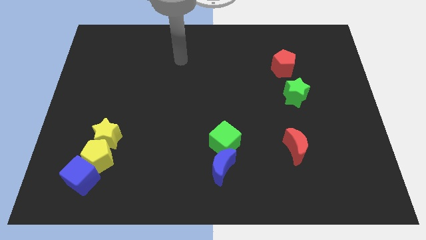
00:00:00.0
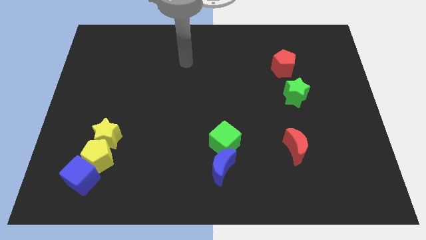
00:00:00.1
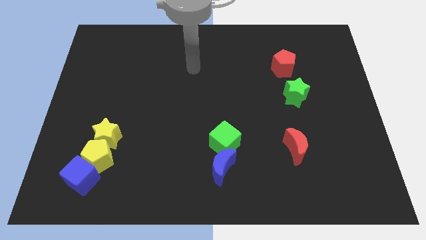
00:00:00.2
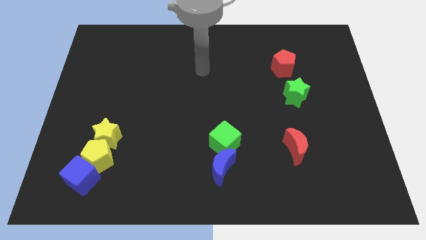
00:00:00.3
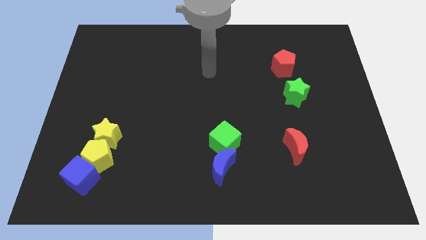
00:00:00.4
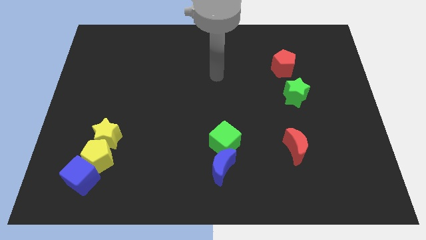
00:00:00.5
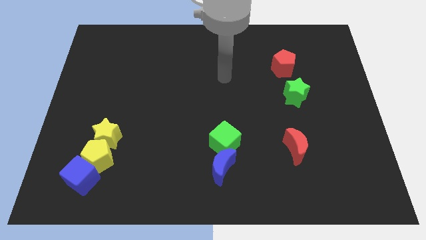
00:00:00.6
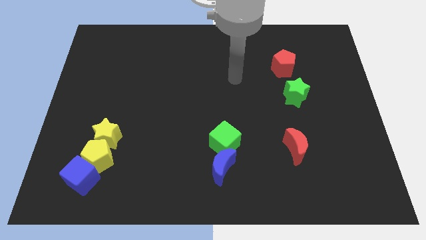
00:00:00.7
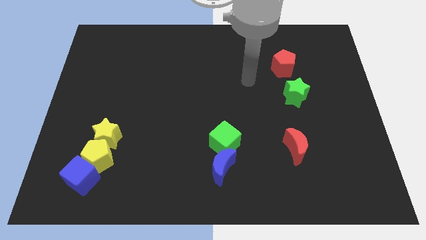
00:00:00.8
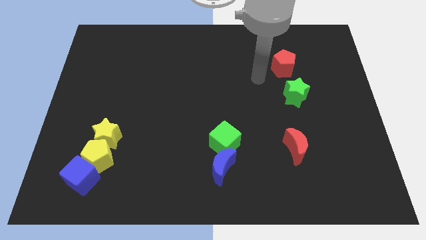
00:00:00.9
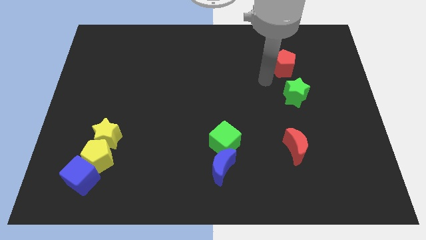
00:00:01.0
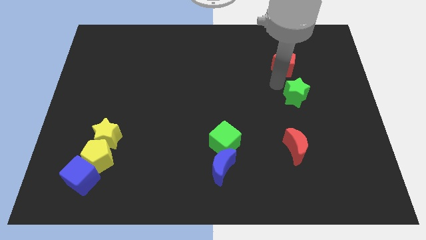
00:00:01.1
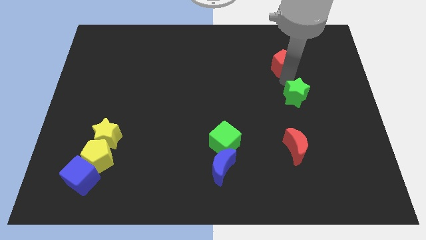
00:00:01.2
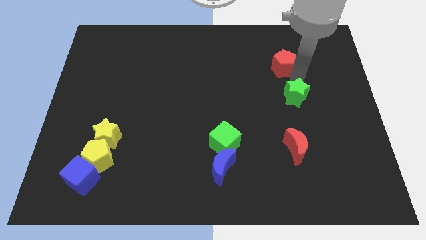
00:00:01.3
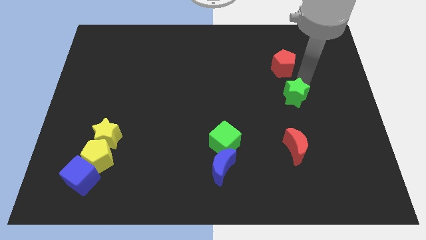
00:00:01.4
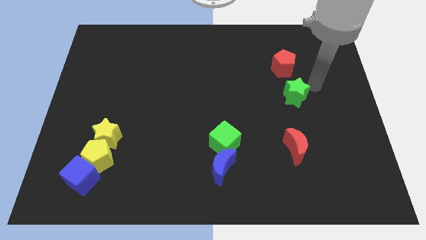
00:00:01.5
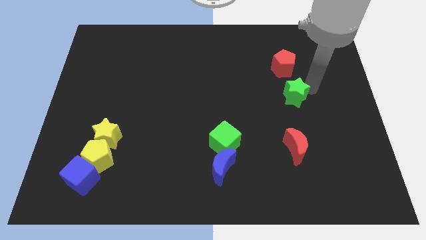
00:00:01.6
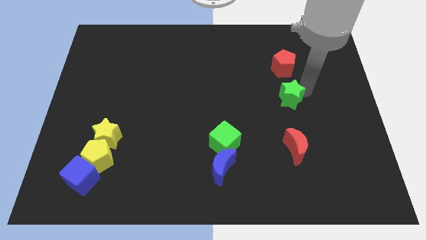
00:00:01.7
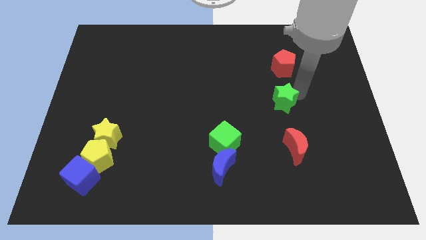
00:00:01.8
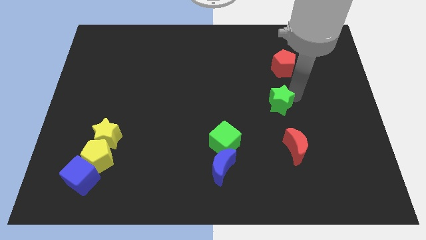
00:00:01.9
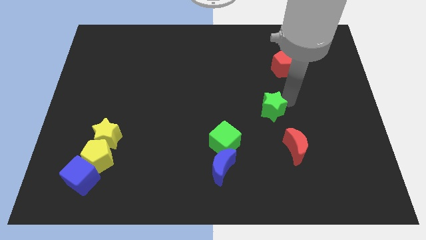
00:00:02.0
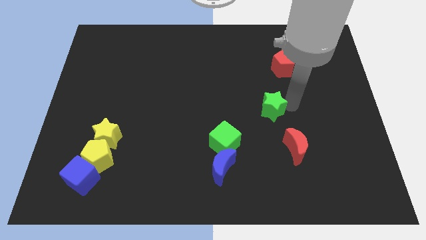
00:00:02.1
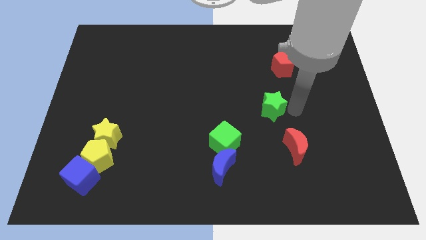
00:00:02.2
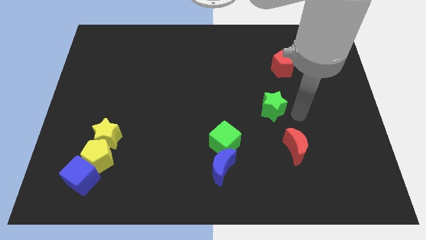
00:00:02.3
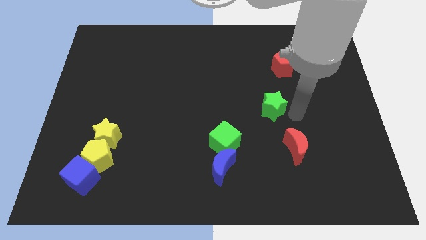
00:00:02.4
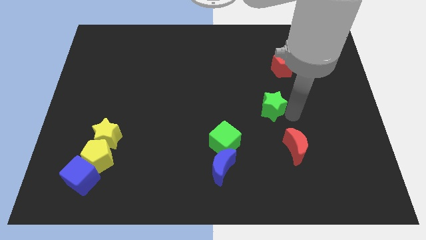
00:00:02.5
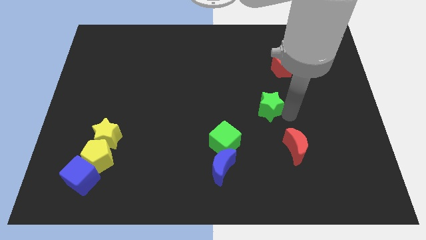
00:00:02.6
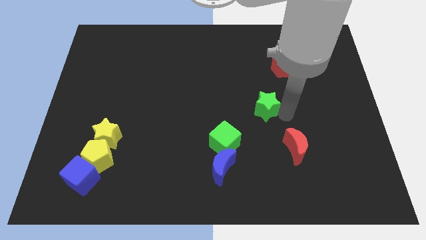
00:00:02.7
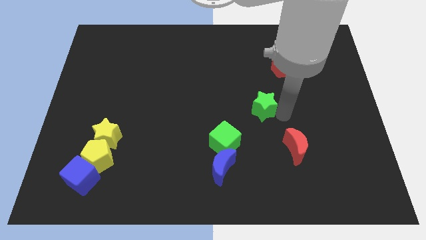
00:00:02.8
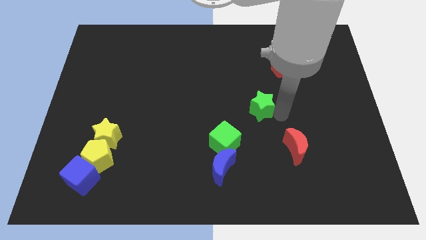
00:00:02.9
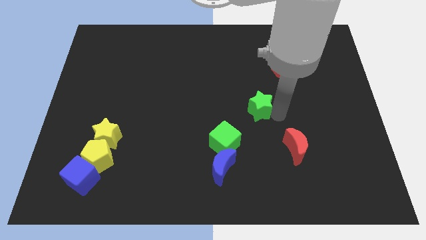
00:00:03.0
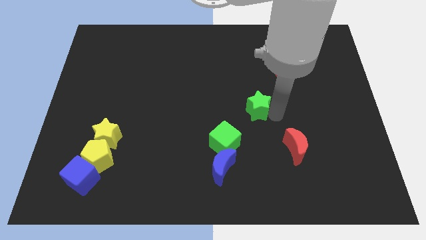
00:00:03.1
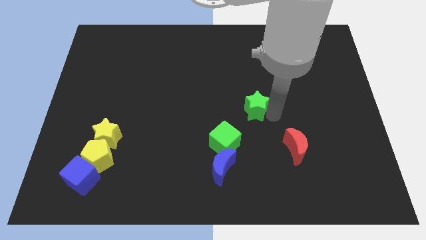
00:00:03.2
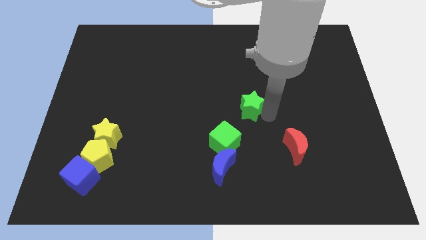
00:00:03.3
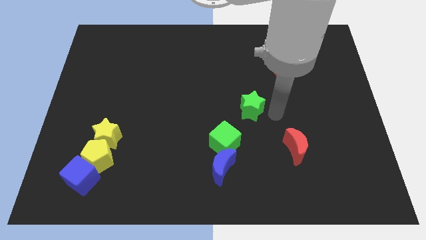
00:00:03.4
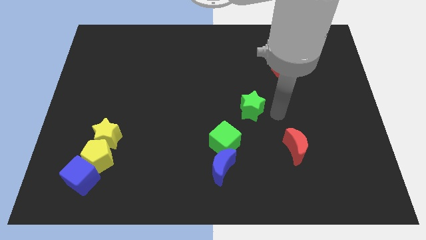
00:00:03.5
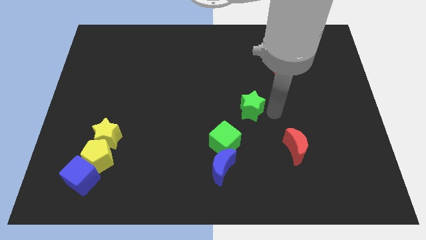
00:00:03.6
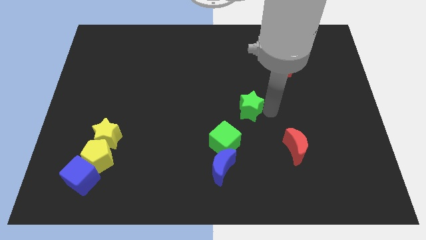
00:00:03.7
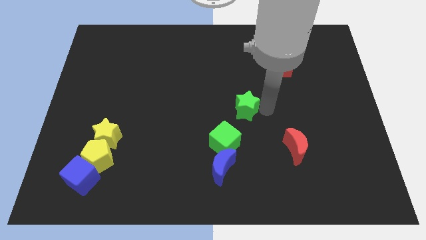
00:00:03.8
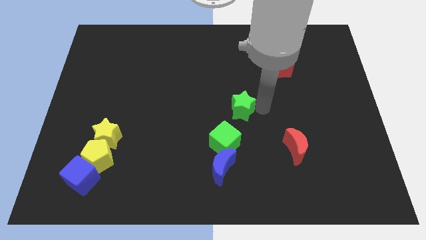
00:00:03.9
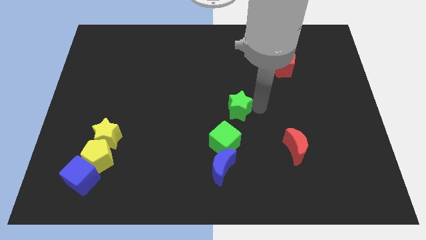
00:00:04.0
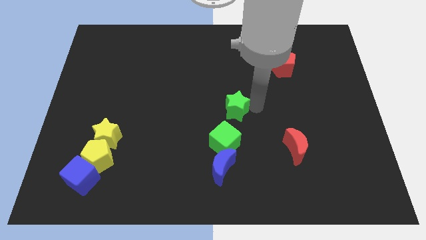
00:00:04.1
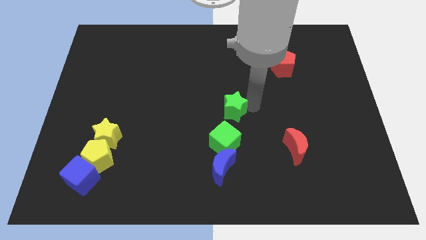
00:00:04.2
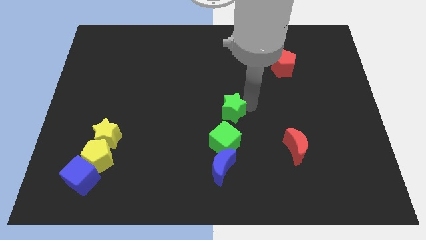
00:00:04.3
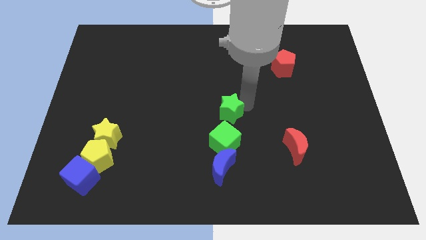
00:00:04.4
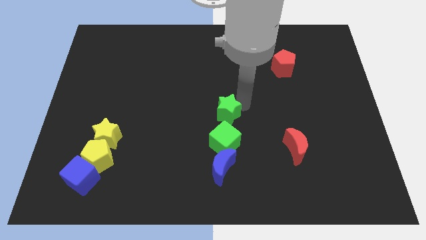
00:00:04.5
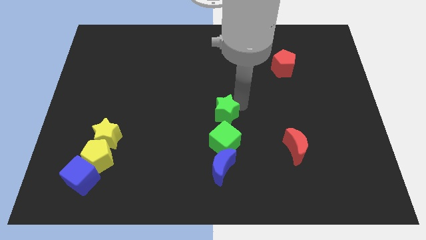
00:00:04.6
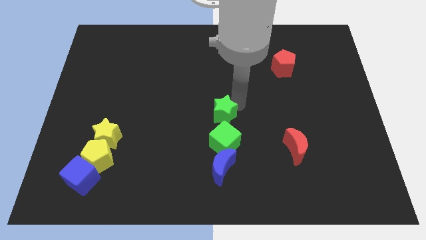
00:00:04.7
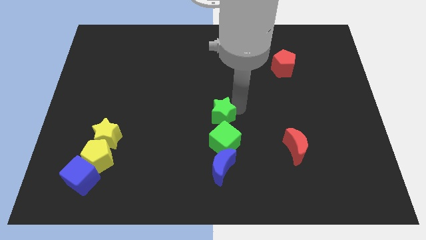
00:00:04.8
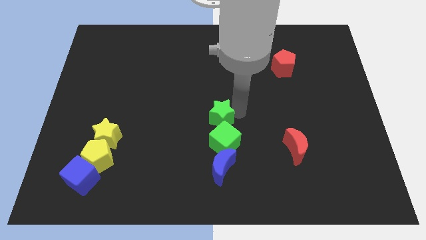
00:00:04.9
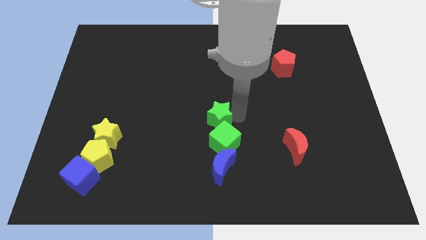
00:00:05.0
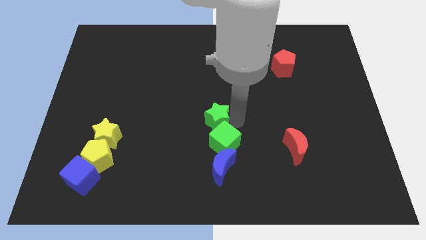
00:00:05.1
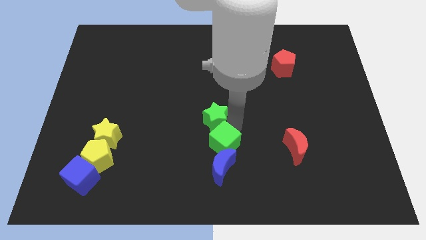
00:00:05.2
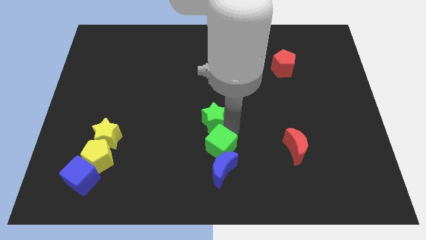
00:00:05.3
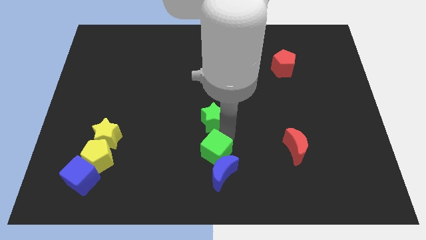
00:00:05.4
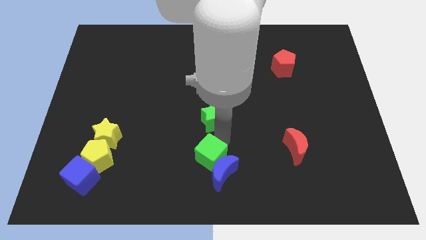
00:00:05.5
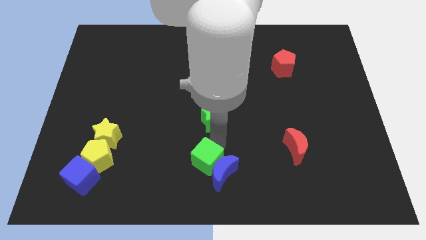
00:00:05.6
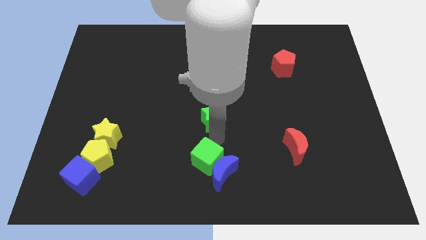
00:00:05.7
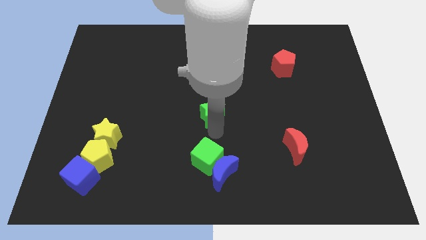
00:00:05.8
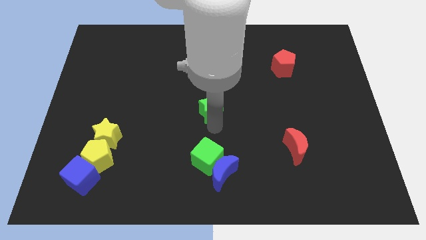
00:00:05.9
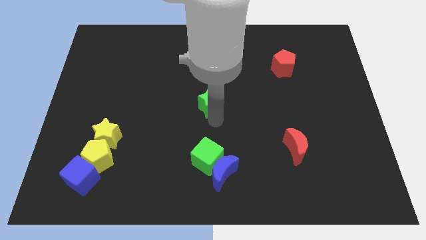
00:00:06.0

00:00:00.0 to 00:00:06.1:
move the green star left

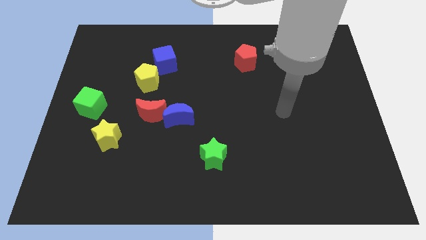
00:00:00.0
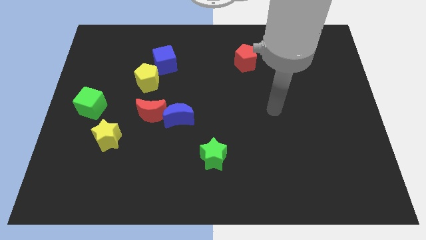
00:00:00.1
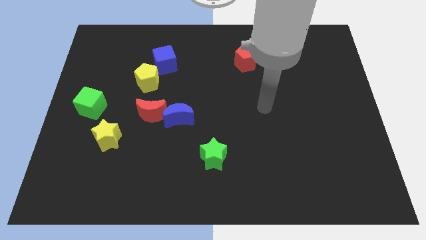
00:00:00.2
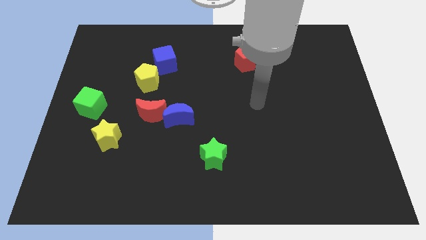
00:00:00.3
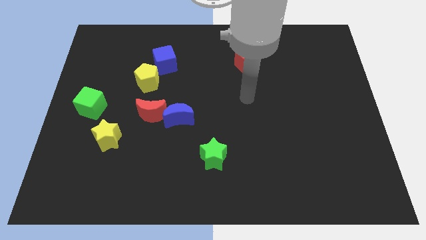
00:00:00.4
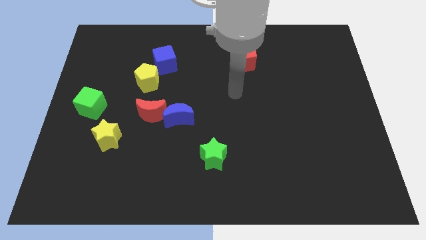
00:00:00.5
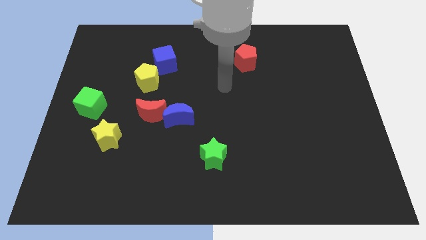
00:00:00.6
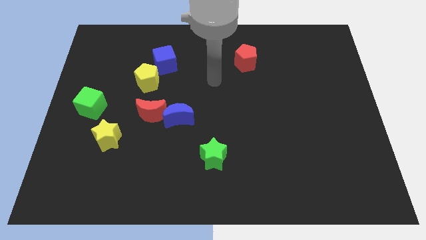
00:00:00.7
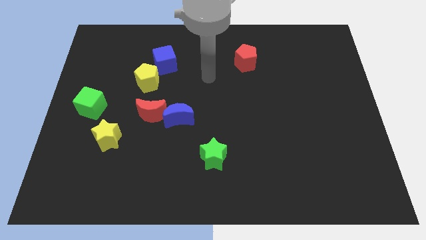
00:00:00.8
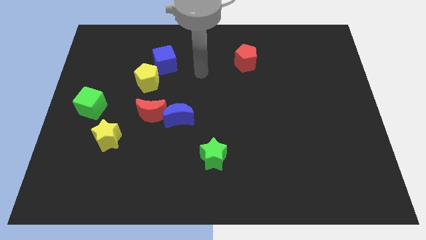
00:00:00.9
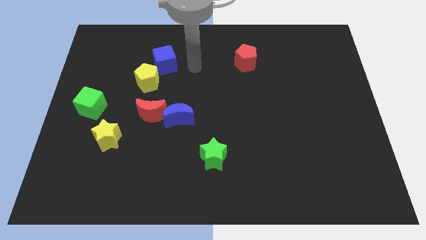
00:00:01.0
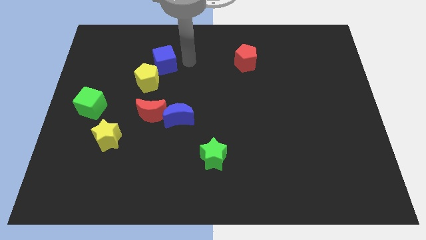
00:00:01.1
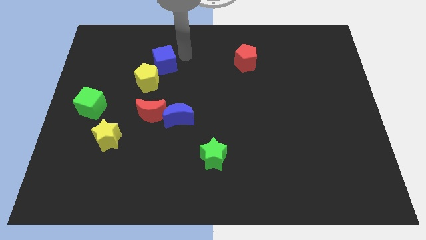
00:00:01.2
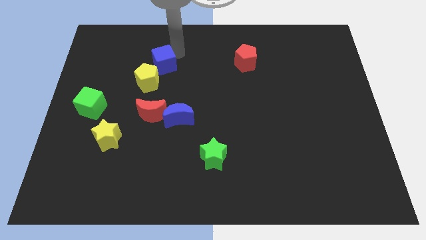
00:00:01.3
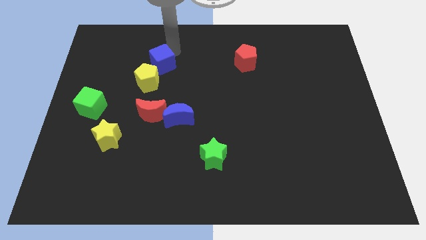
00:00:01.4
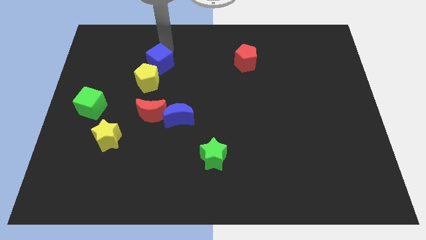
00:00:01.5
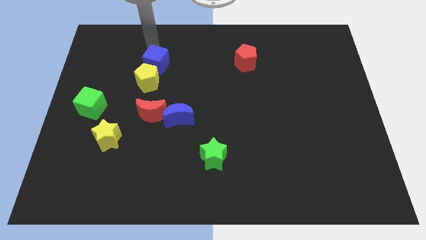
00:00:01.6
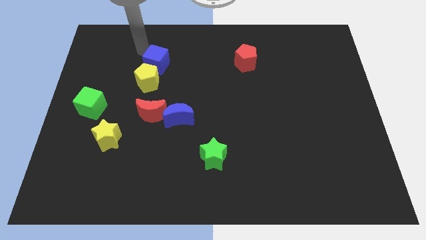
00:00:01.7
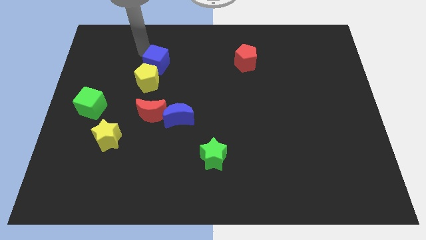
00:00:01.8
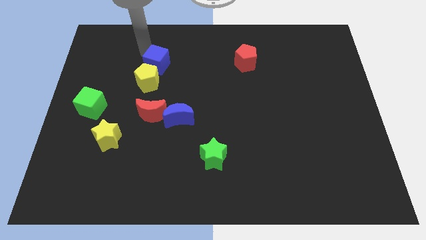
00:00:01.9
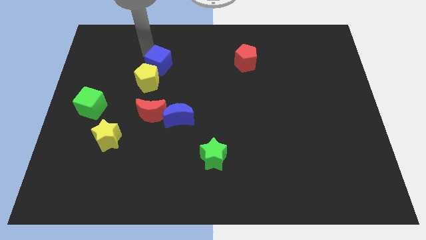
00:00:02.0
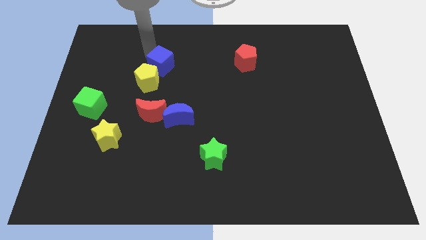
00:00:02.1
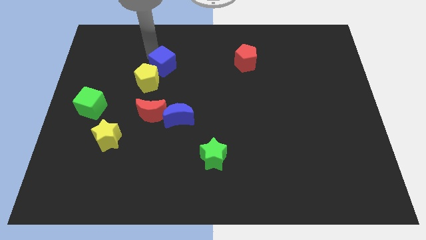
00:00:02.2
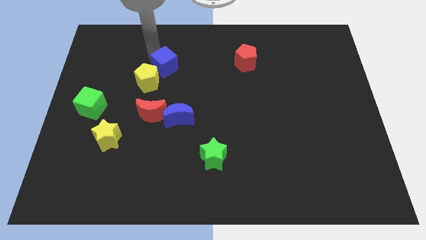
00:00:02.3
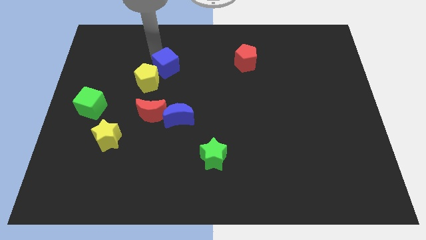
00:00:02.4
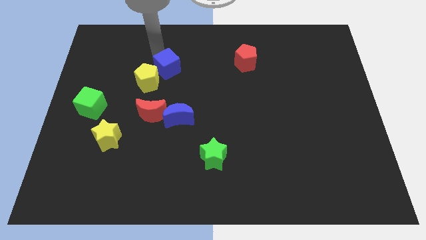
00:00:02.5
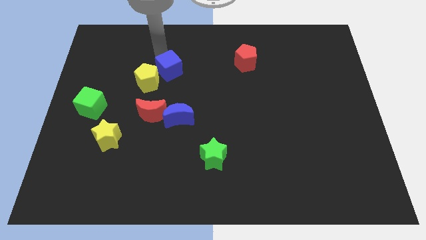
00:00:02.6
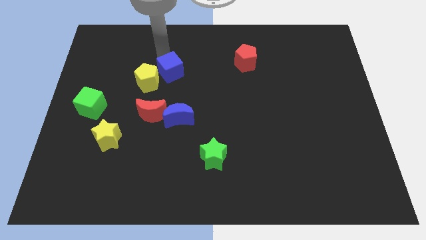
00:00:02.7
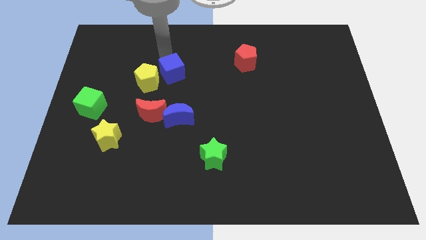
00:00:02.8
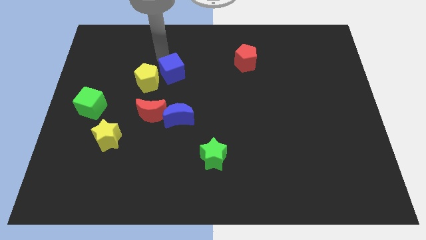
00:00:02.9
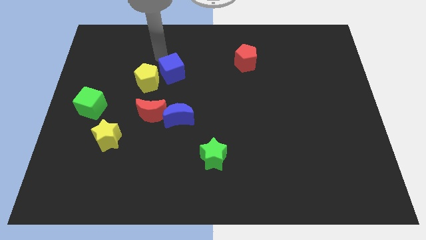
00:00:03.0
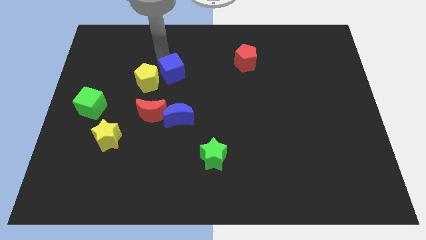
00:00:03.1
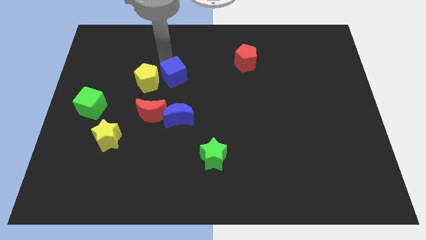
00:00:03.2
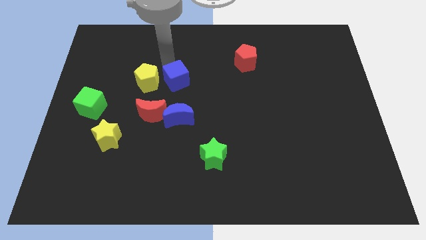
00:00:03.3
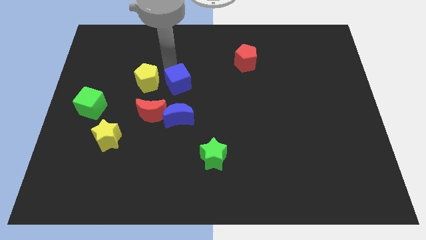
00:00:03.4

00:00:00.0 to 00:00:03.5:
slide the blue cube down and right diagonally a bit
